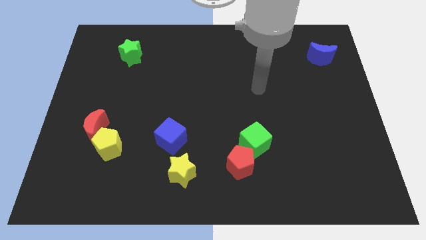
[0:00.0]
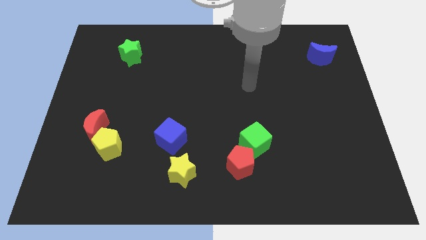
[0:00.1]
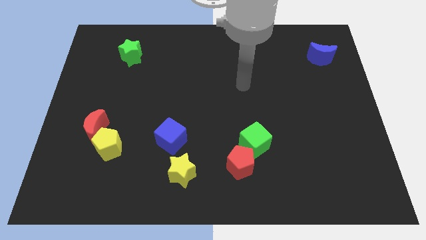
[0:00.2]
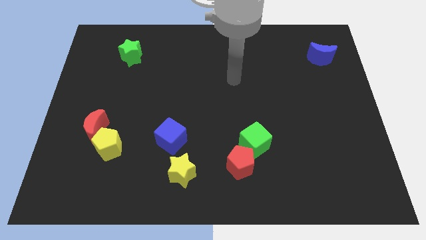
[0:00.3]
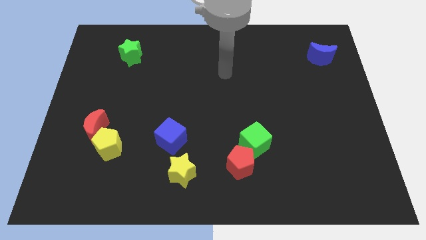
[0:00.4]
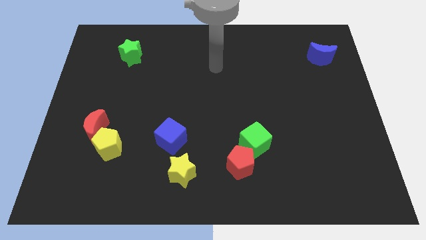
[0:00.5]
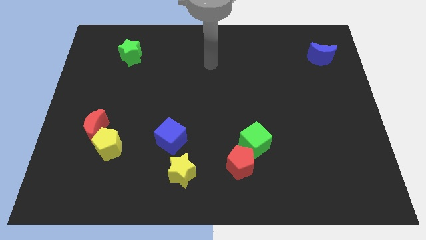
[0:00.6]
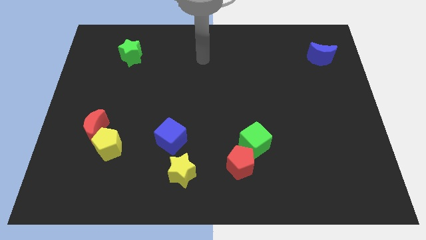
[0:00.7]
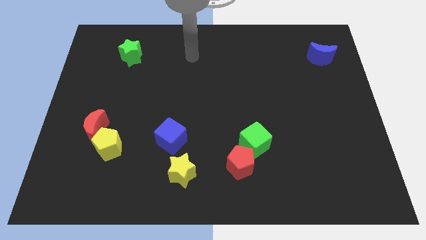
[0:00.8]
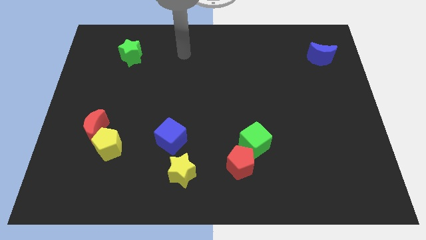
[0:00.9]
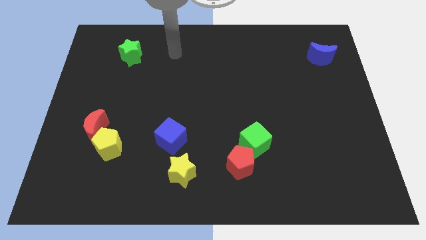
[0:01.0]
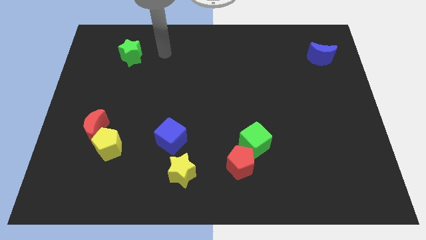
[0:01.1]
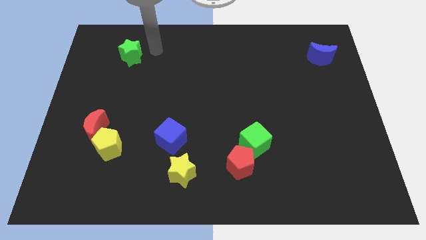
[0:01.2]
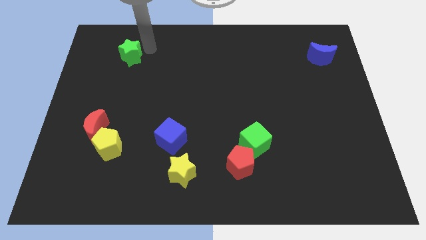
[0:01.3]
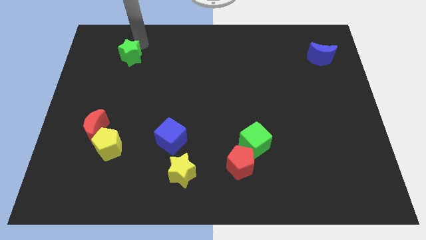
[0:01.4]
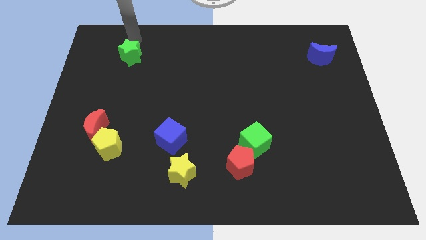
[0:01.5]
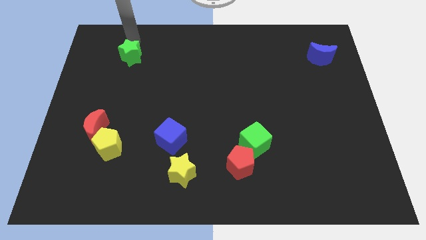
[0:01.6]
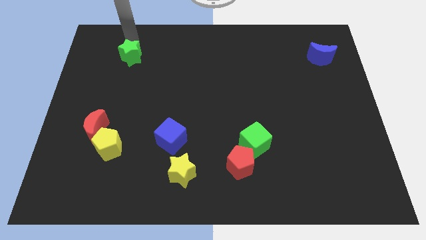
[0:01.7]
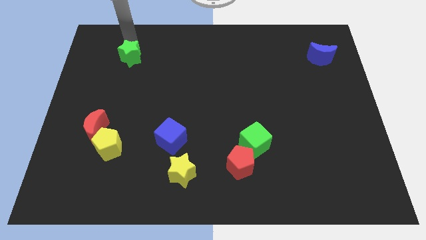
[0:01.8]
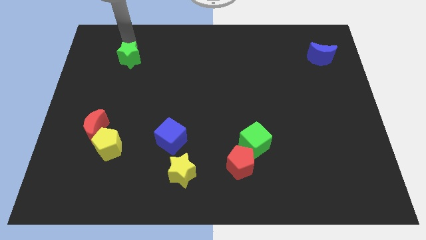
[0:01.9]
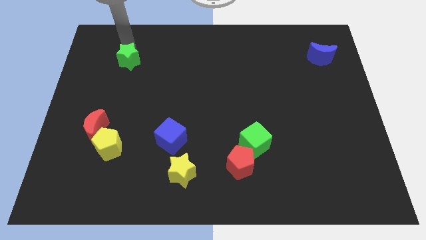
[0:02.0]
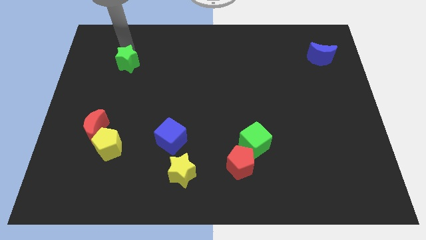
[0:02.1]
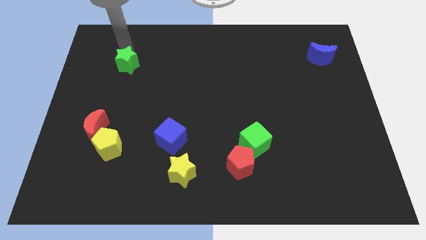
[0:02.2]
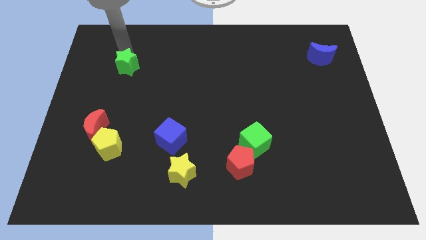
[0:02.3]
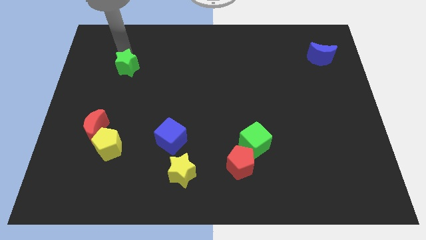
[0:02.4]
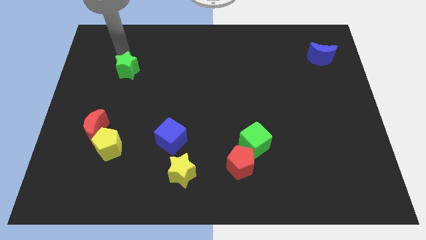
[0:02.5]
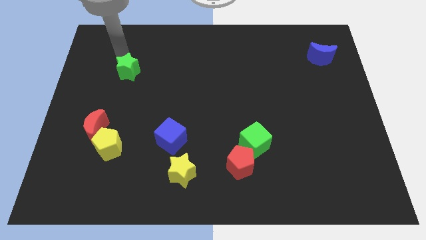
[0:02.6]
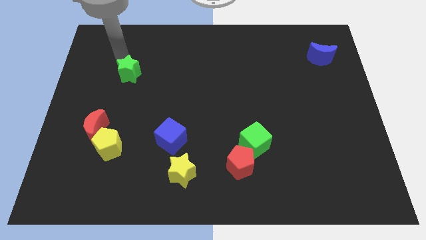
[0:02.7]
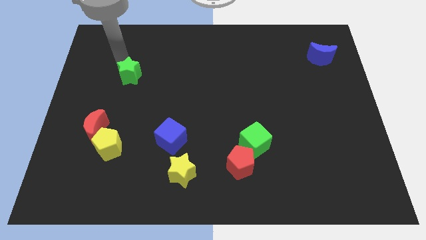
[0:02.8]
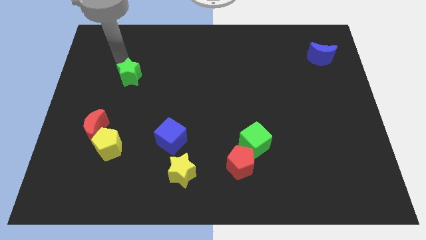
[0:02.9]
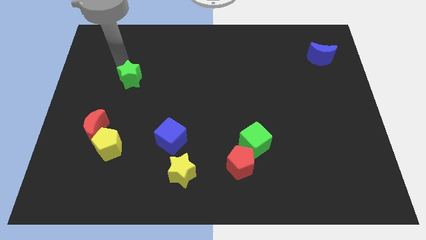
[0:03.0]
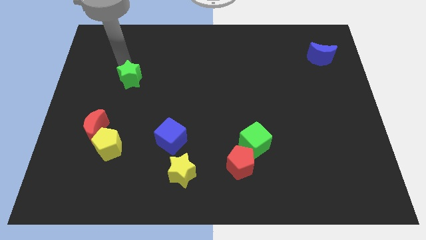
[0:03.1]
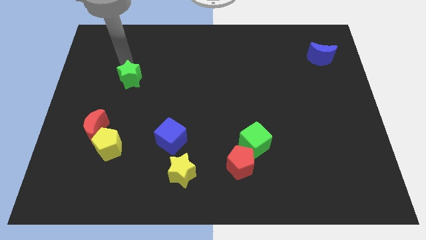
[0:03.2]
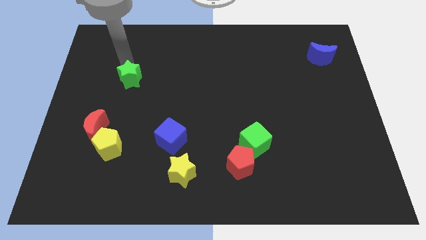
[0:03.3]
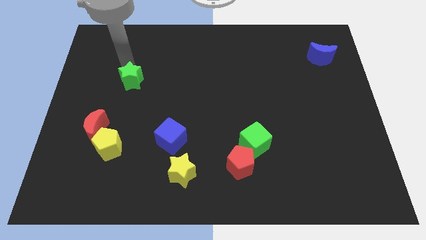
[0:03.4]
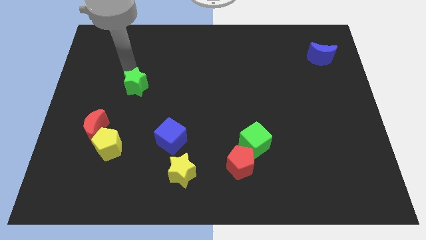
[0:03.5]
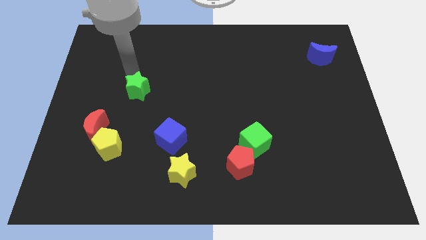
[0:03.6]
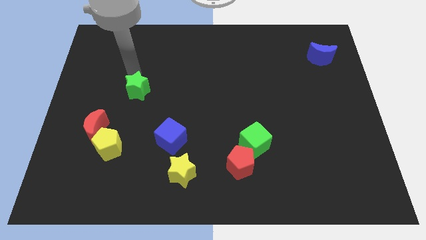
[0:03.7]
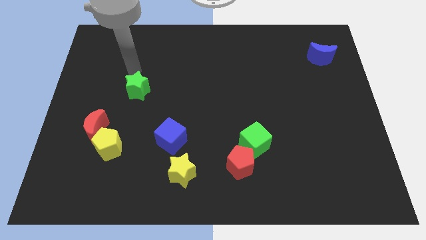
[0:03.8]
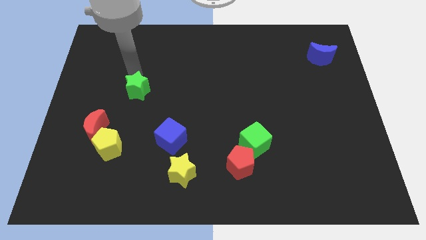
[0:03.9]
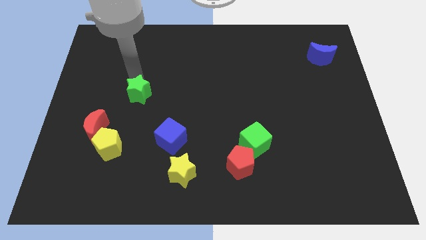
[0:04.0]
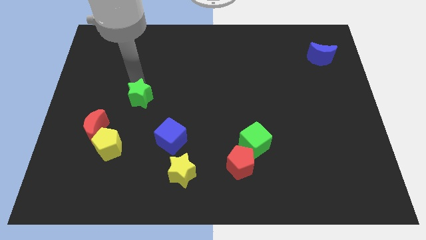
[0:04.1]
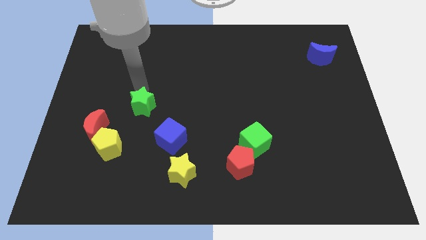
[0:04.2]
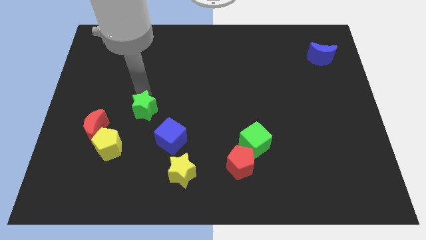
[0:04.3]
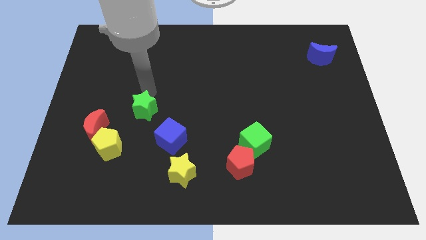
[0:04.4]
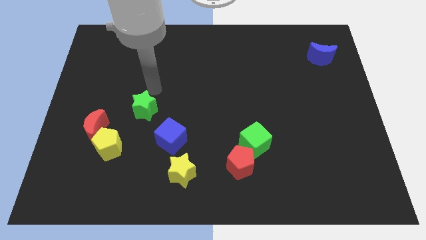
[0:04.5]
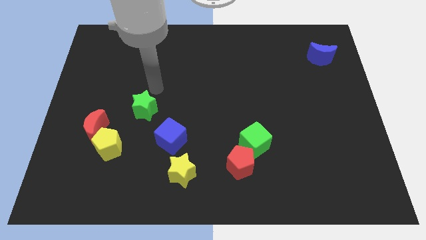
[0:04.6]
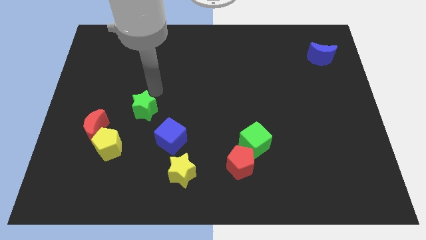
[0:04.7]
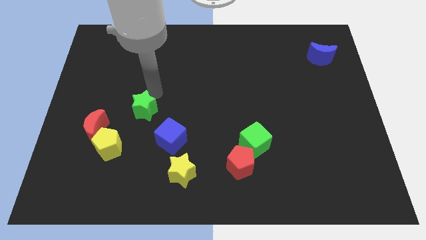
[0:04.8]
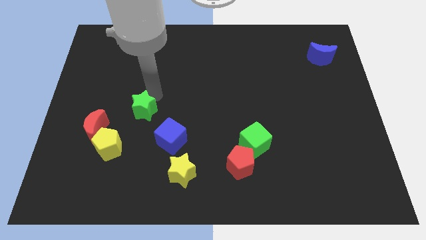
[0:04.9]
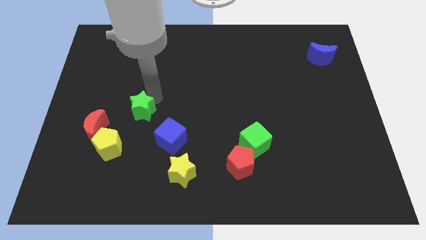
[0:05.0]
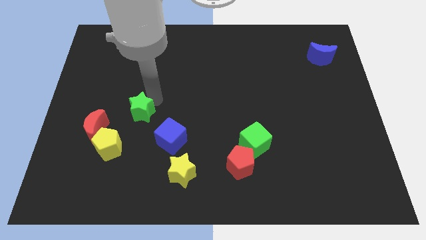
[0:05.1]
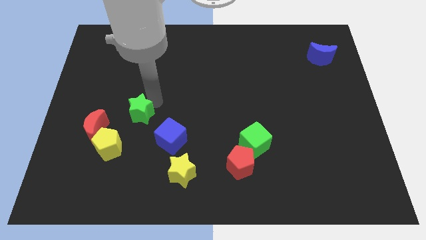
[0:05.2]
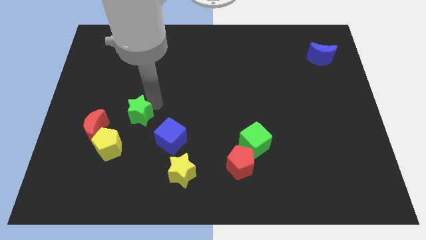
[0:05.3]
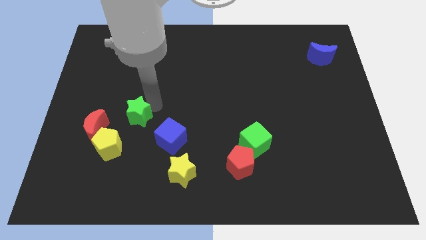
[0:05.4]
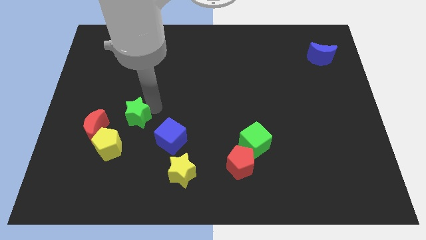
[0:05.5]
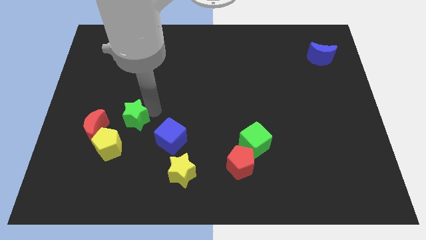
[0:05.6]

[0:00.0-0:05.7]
push the green star downwards

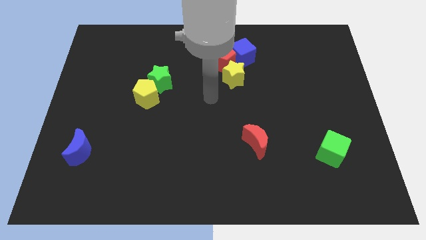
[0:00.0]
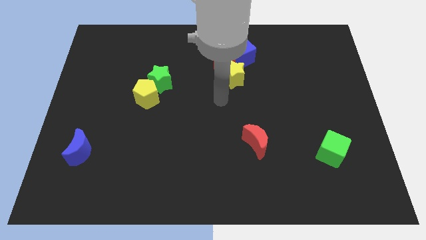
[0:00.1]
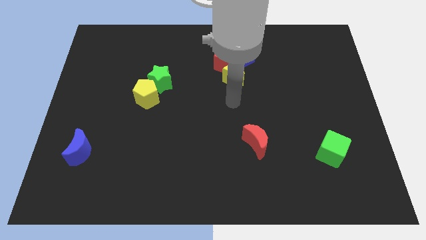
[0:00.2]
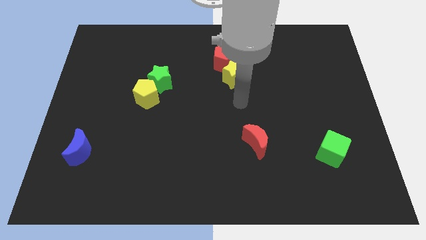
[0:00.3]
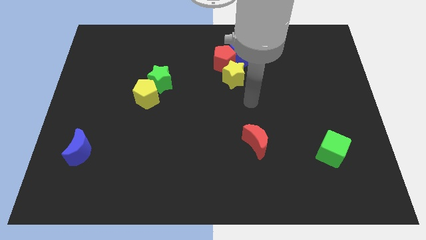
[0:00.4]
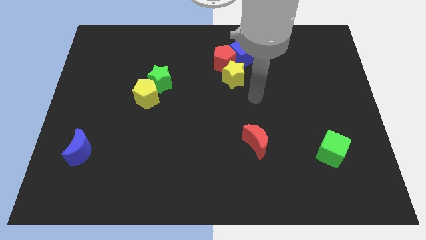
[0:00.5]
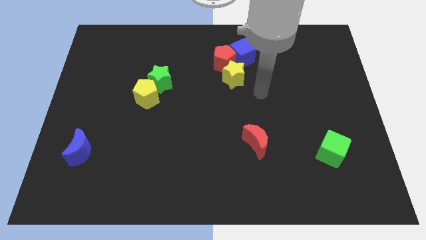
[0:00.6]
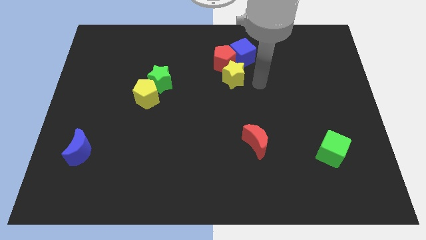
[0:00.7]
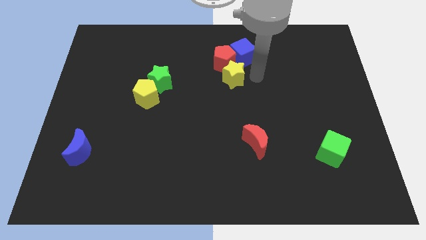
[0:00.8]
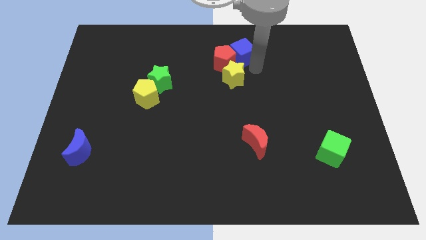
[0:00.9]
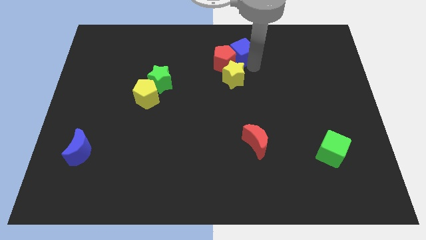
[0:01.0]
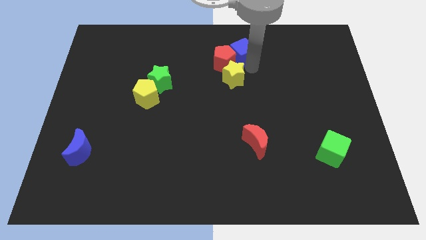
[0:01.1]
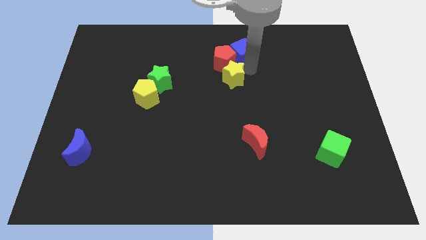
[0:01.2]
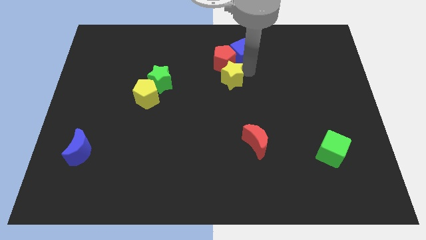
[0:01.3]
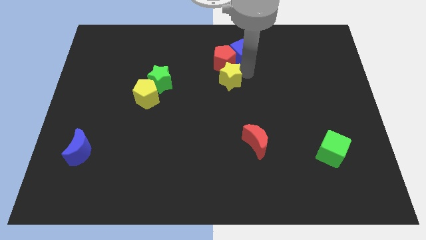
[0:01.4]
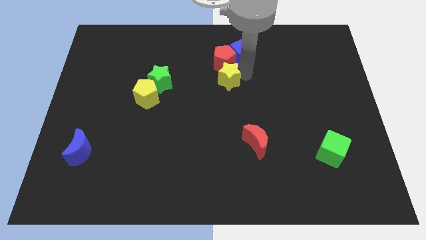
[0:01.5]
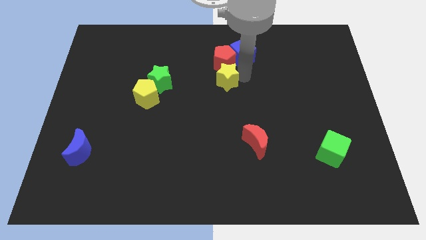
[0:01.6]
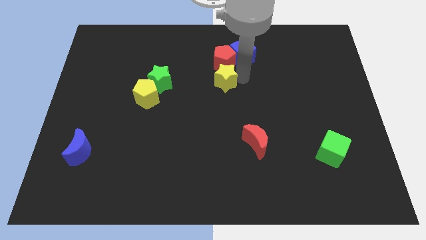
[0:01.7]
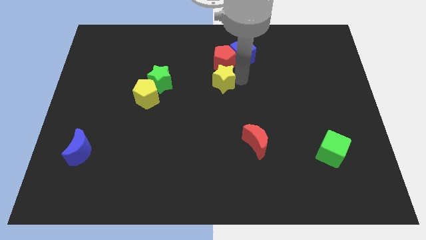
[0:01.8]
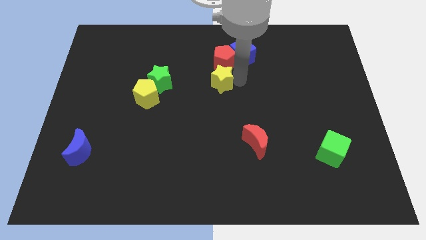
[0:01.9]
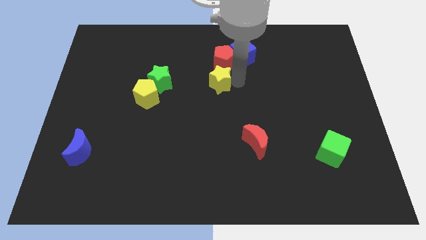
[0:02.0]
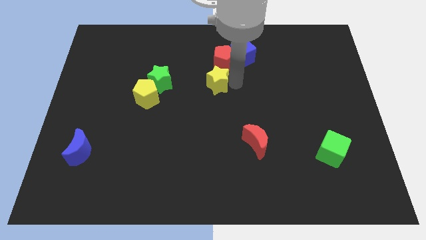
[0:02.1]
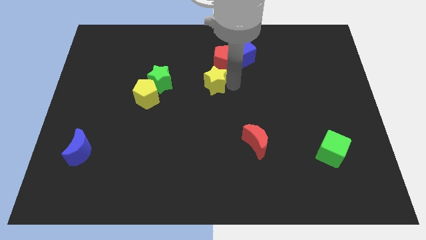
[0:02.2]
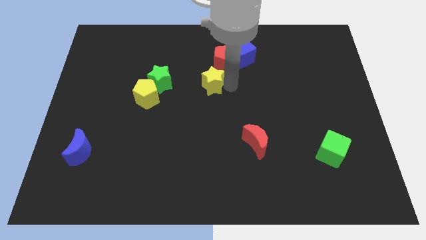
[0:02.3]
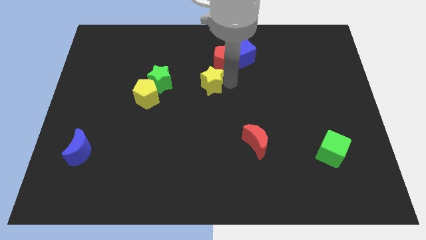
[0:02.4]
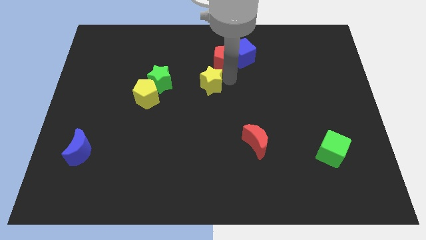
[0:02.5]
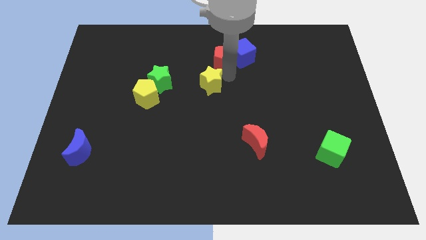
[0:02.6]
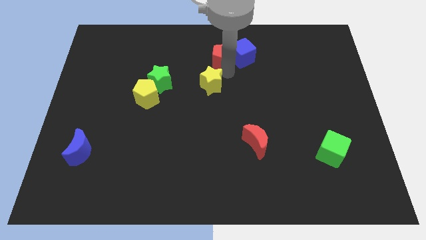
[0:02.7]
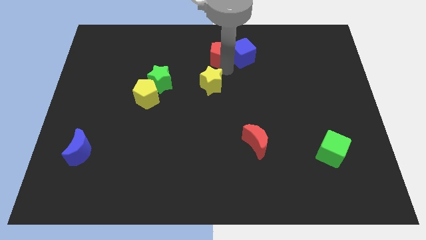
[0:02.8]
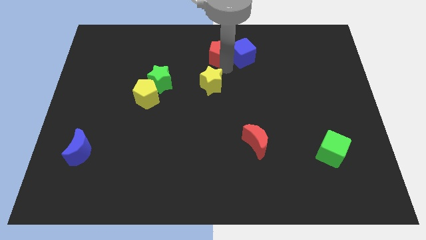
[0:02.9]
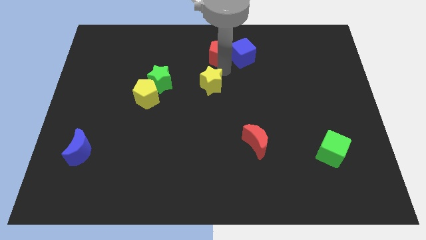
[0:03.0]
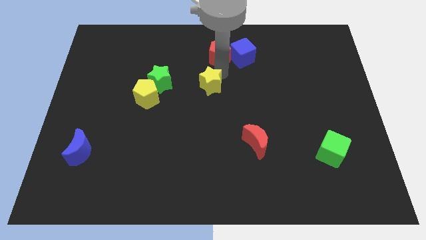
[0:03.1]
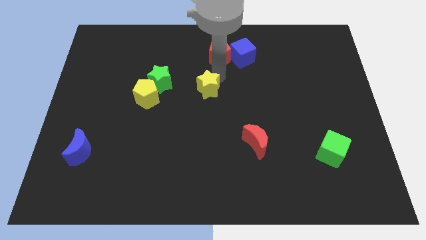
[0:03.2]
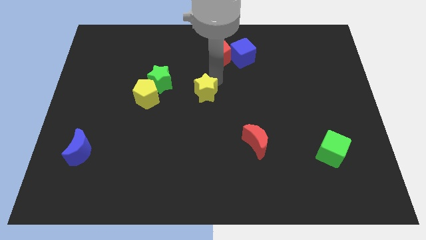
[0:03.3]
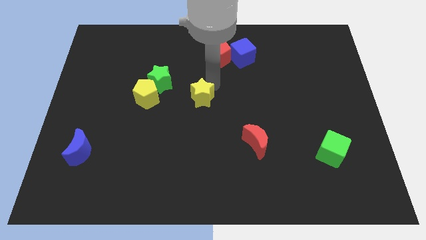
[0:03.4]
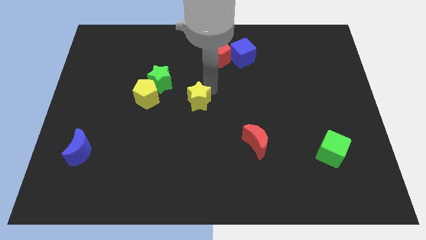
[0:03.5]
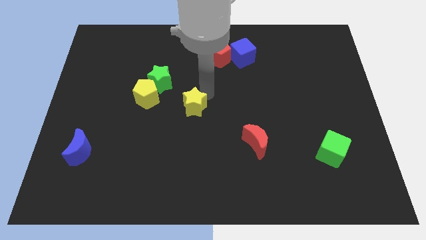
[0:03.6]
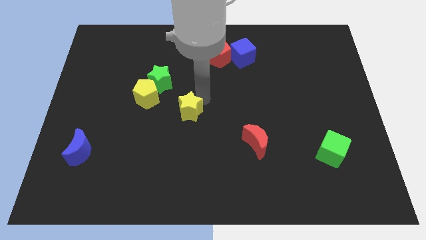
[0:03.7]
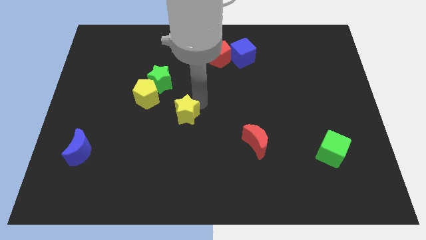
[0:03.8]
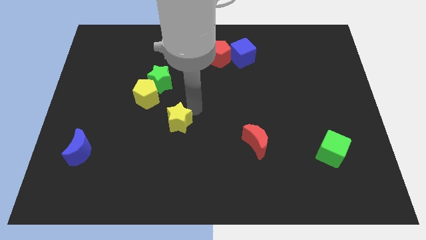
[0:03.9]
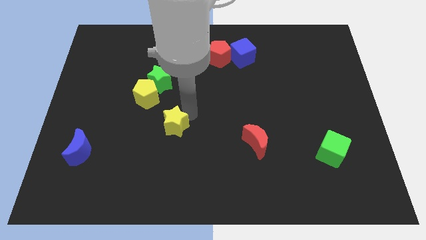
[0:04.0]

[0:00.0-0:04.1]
push the yellow star downwards and to the left diagonally
